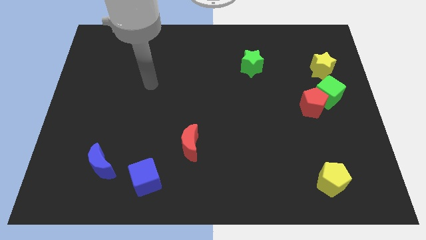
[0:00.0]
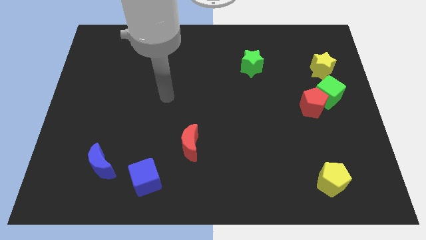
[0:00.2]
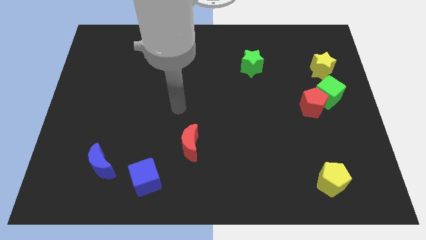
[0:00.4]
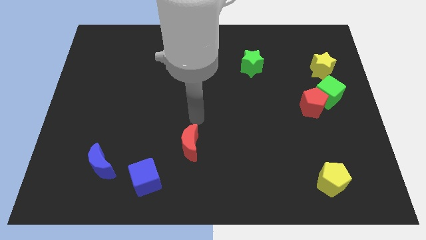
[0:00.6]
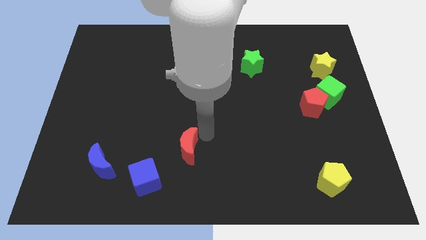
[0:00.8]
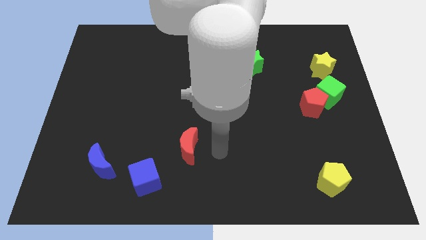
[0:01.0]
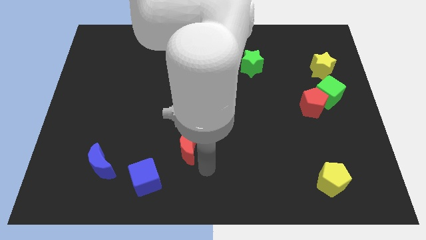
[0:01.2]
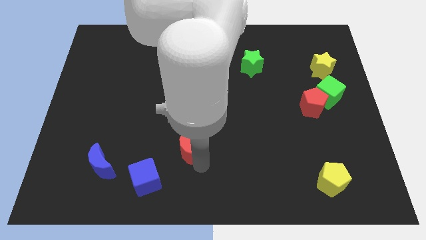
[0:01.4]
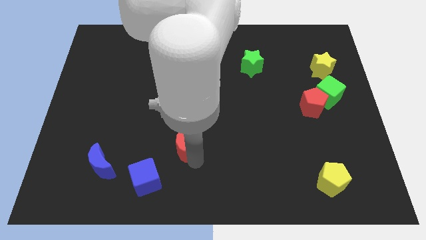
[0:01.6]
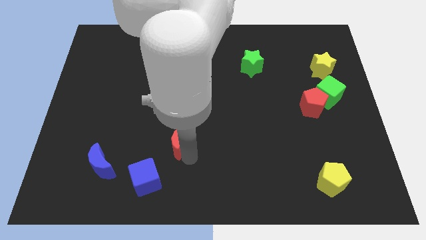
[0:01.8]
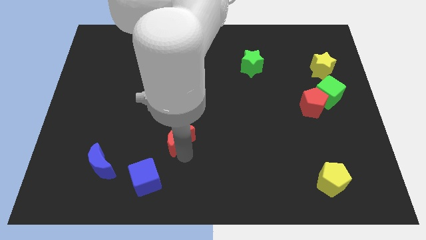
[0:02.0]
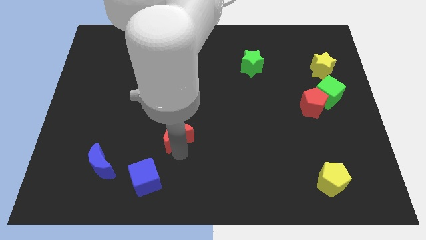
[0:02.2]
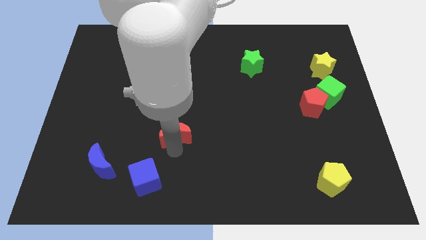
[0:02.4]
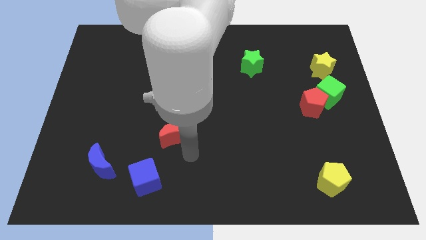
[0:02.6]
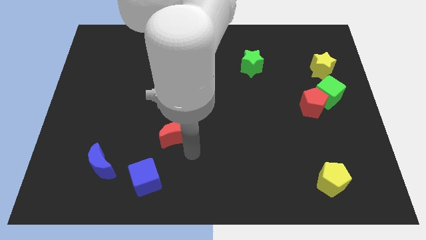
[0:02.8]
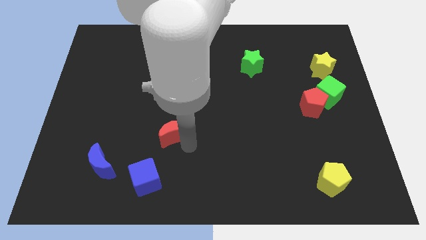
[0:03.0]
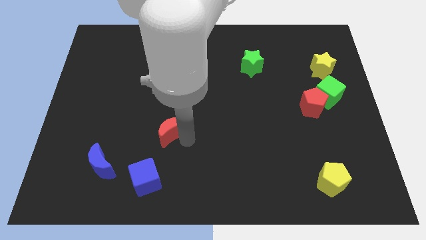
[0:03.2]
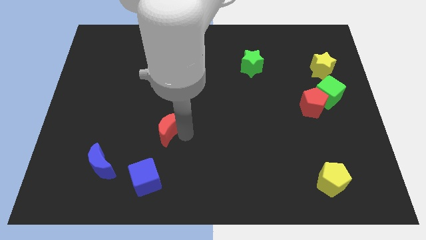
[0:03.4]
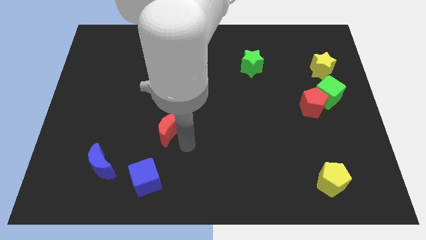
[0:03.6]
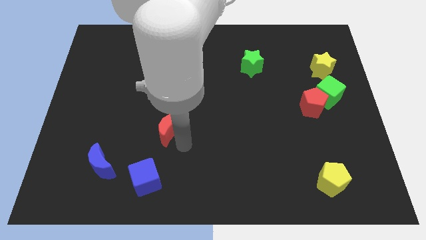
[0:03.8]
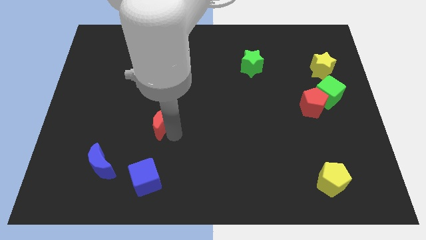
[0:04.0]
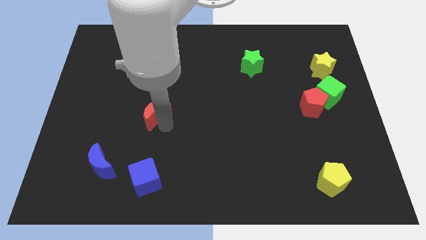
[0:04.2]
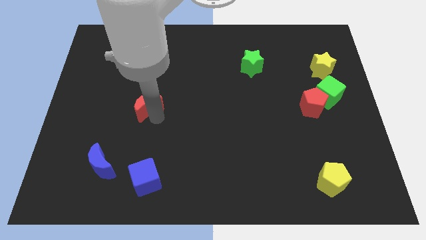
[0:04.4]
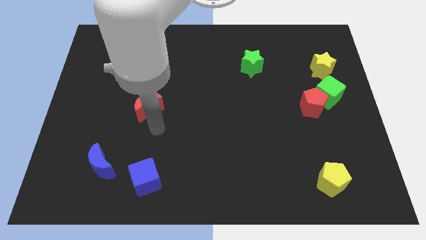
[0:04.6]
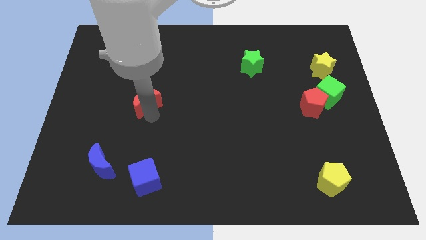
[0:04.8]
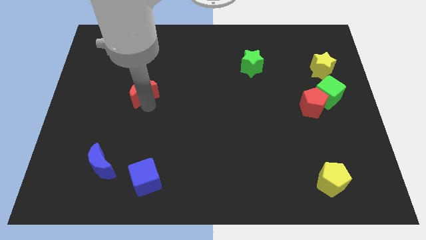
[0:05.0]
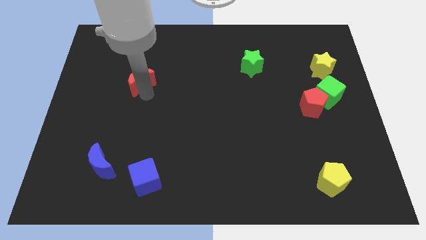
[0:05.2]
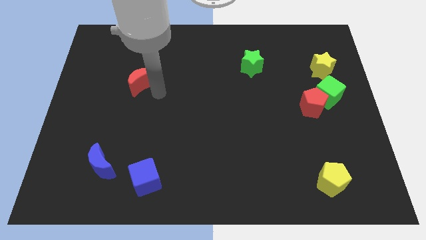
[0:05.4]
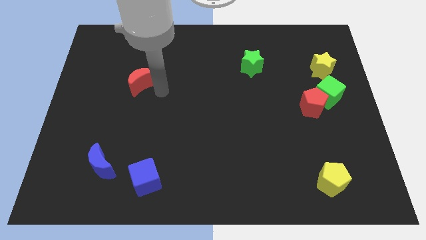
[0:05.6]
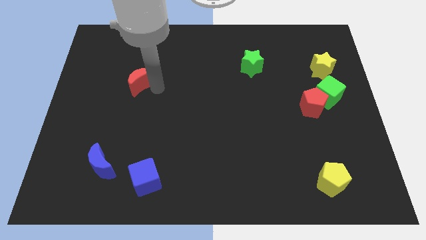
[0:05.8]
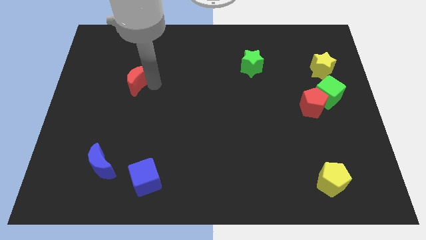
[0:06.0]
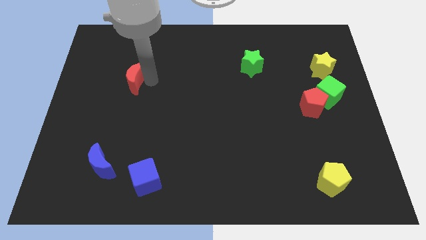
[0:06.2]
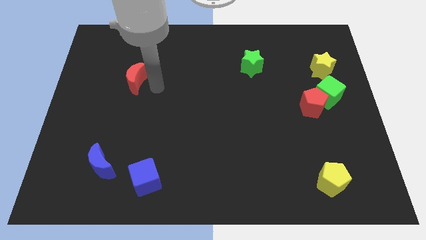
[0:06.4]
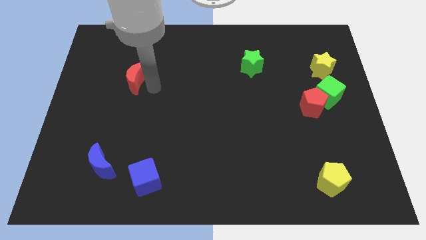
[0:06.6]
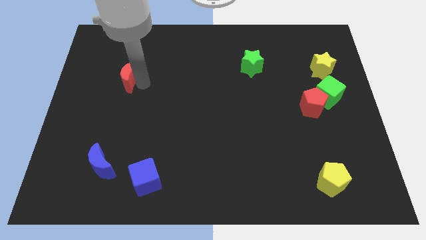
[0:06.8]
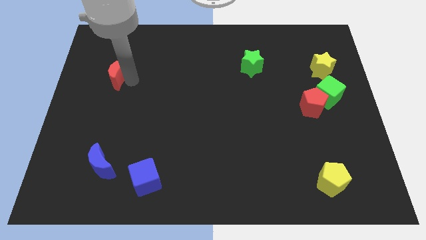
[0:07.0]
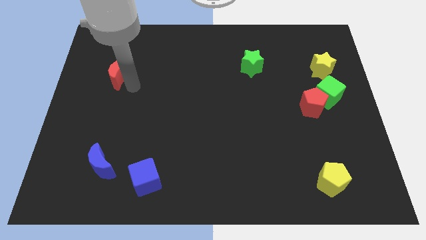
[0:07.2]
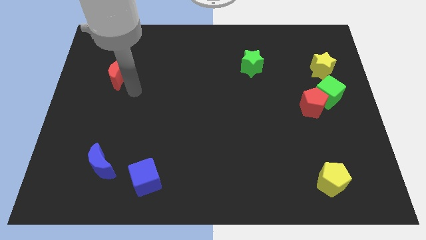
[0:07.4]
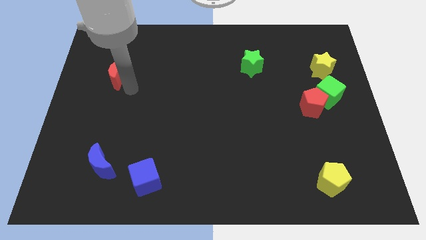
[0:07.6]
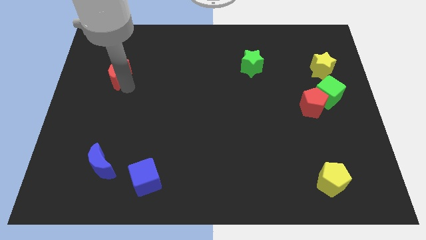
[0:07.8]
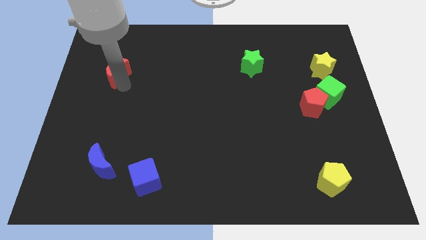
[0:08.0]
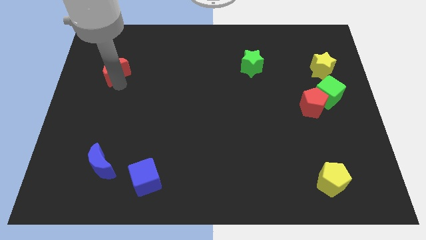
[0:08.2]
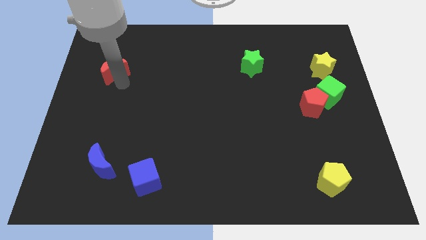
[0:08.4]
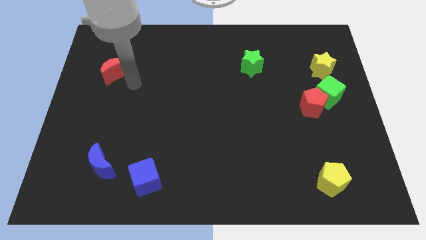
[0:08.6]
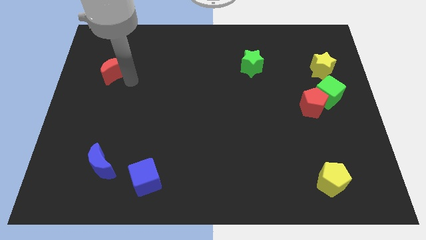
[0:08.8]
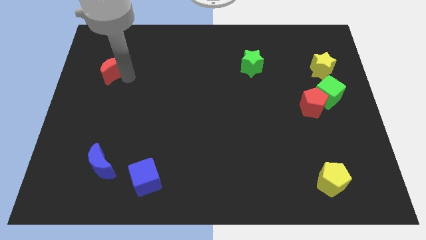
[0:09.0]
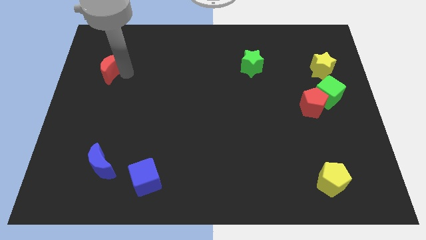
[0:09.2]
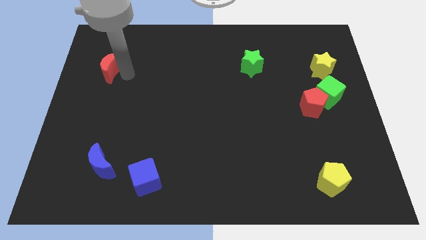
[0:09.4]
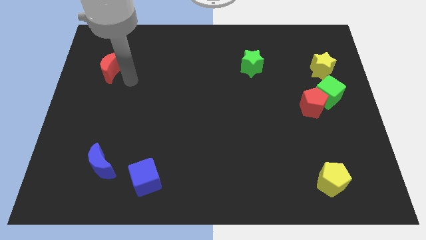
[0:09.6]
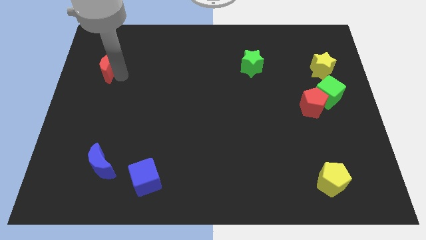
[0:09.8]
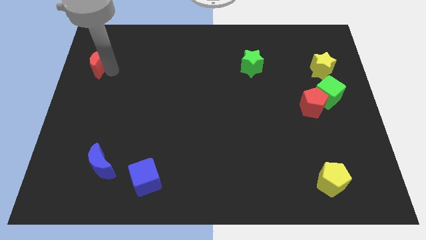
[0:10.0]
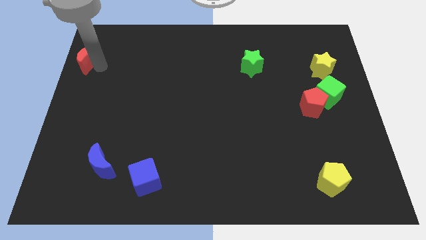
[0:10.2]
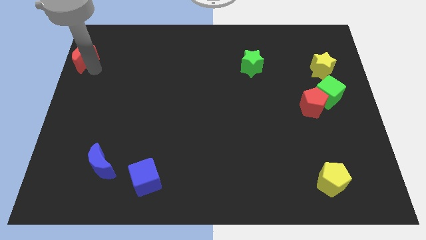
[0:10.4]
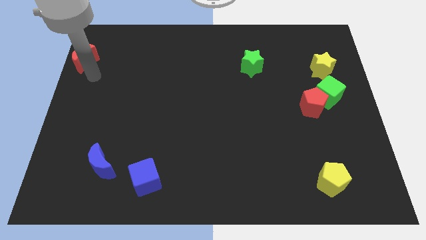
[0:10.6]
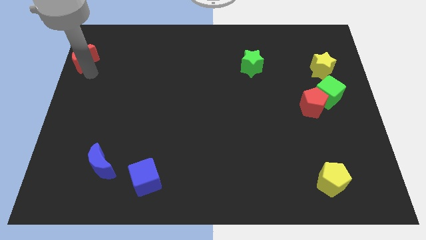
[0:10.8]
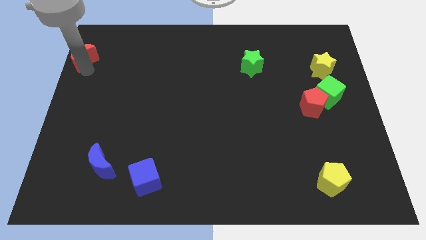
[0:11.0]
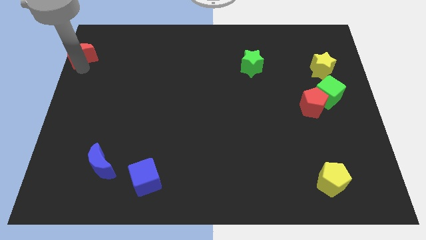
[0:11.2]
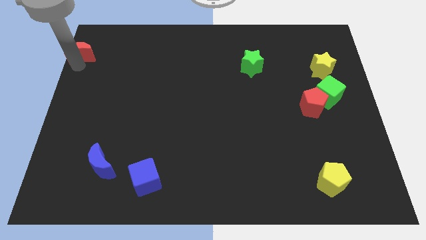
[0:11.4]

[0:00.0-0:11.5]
slide the red moon to the top left of the board

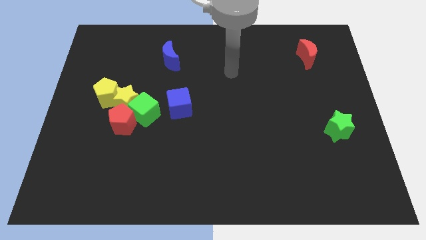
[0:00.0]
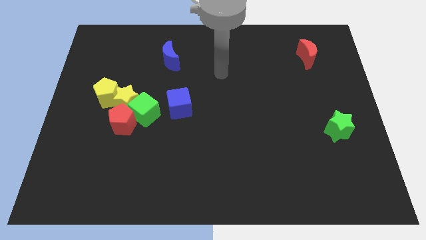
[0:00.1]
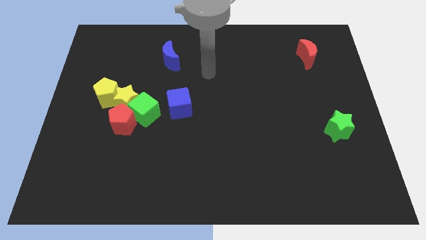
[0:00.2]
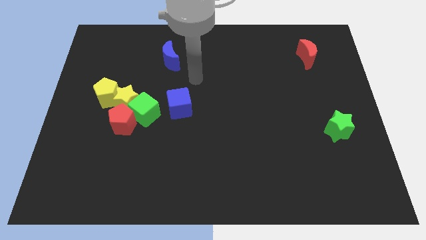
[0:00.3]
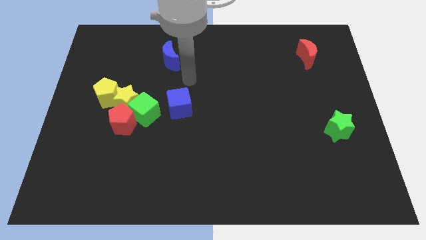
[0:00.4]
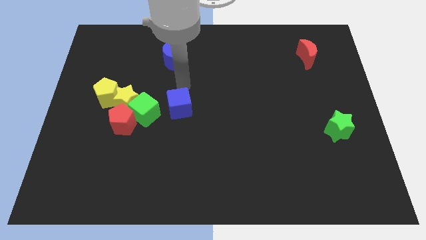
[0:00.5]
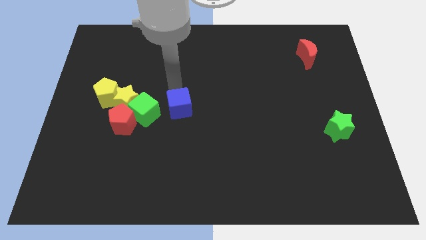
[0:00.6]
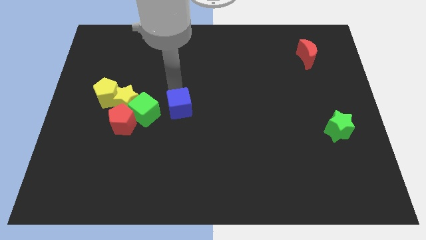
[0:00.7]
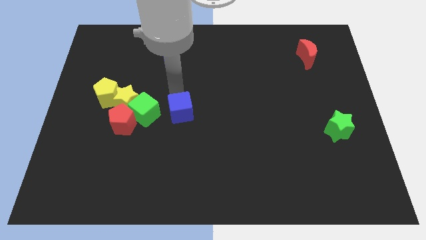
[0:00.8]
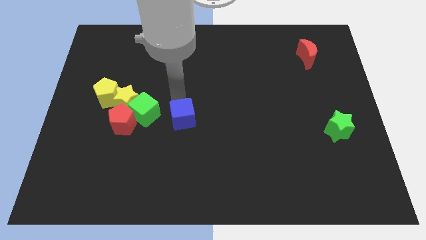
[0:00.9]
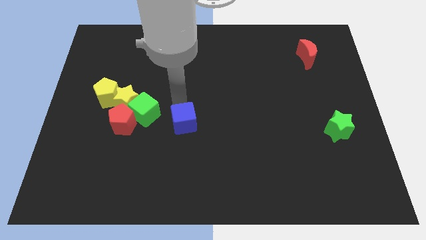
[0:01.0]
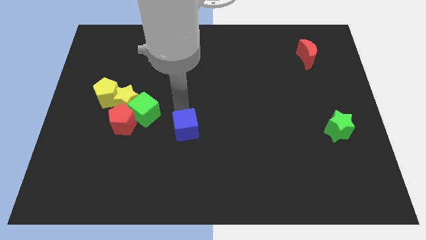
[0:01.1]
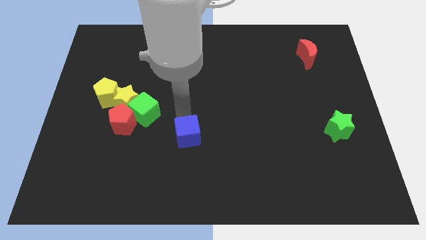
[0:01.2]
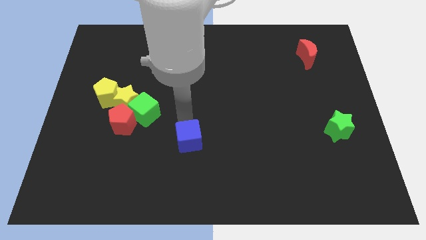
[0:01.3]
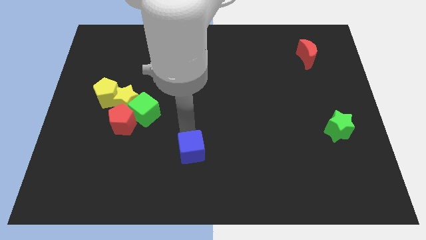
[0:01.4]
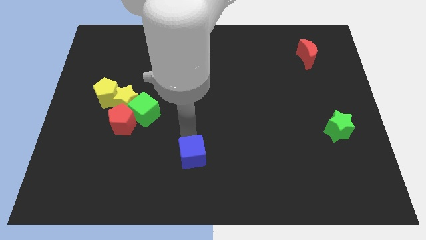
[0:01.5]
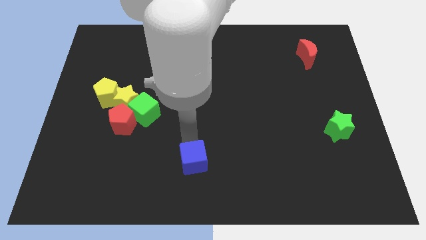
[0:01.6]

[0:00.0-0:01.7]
slide the blue cube to the bottom

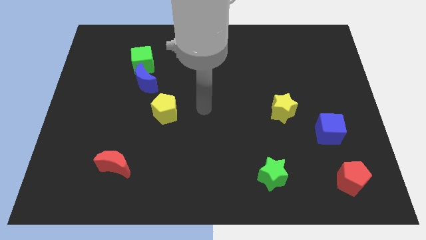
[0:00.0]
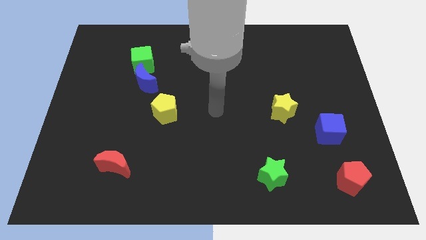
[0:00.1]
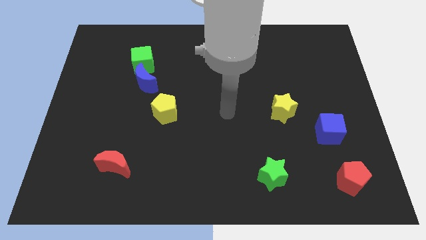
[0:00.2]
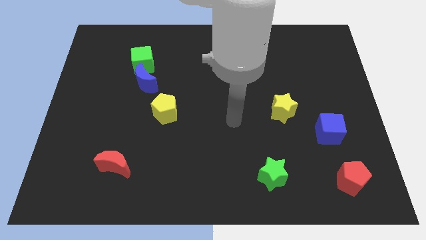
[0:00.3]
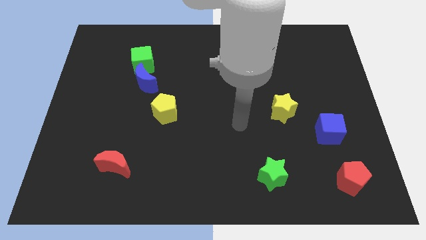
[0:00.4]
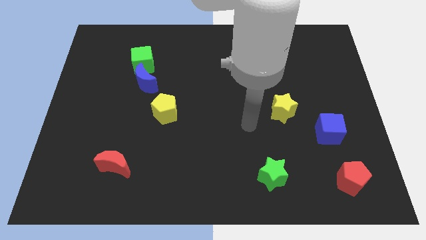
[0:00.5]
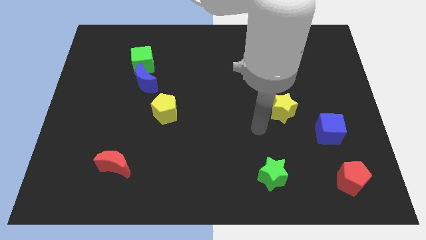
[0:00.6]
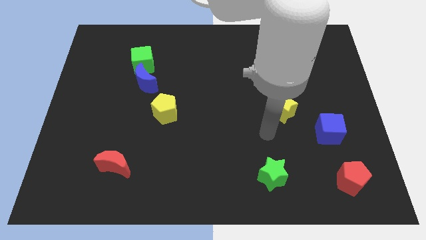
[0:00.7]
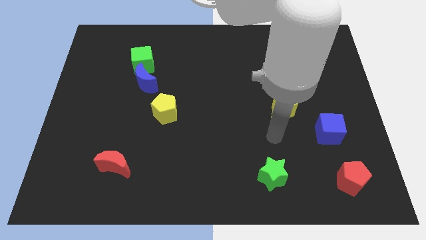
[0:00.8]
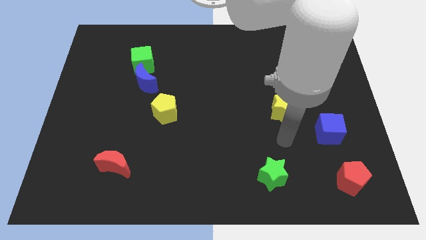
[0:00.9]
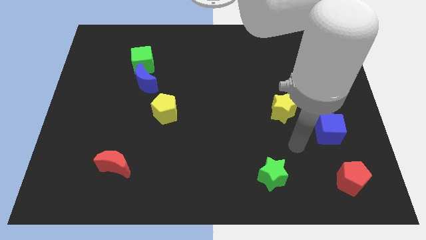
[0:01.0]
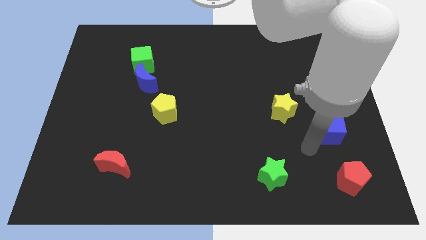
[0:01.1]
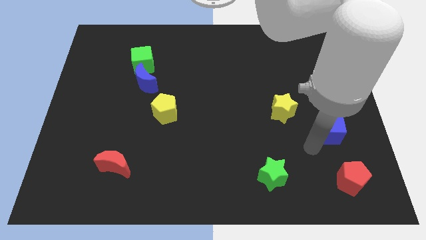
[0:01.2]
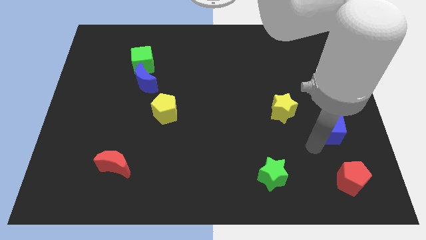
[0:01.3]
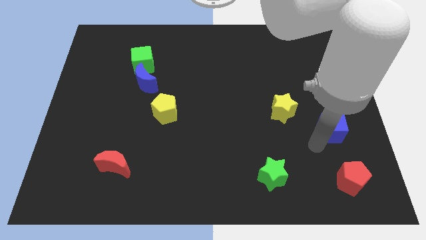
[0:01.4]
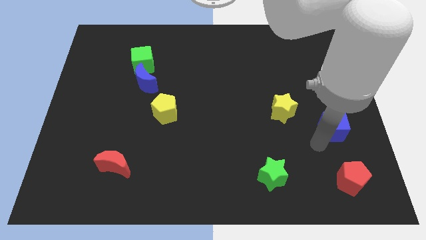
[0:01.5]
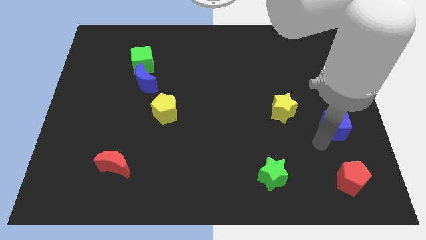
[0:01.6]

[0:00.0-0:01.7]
move the blue cube to the center right
